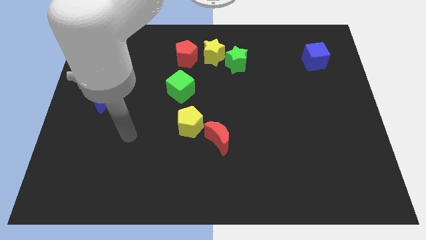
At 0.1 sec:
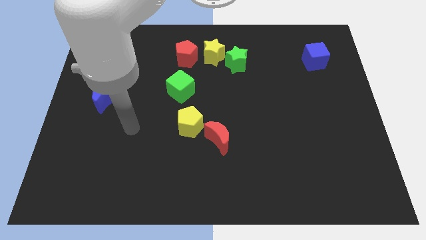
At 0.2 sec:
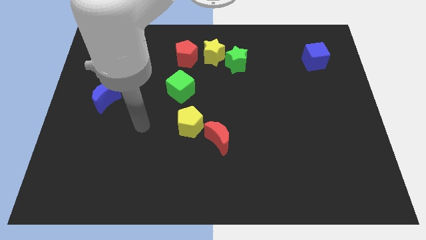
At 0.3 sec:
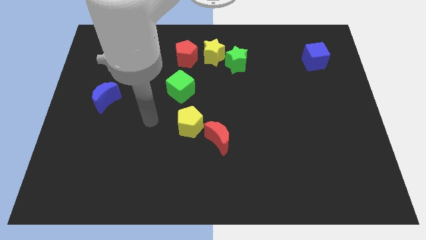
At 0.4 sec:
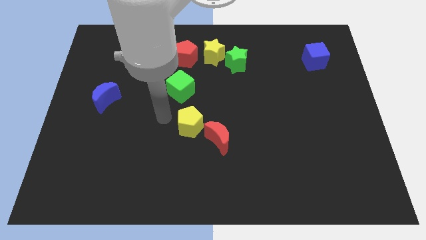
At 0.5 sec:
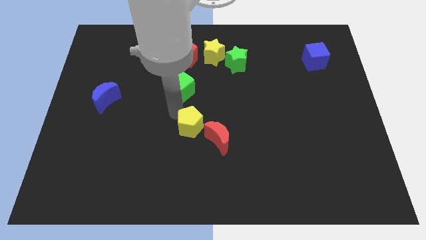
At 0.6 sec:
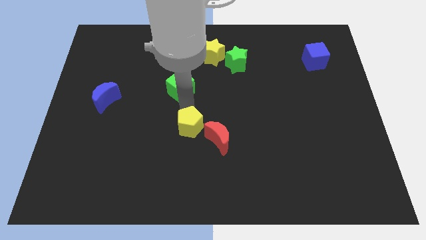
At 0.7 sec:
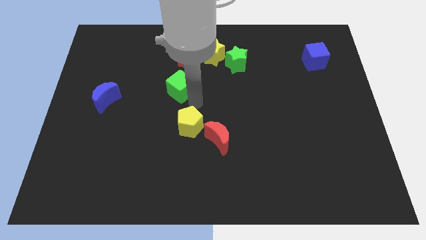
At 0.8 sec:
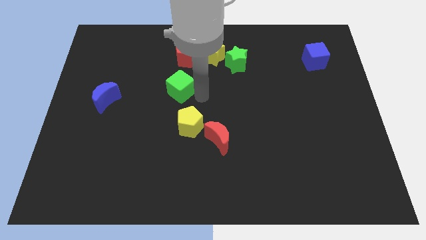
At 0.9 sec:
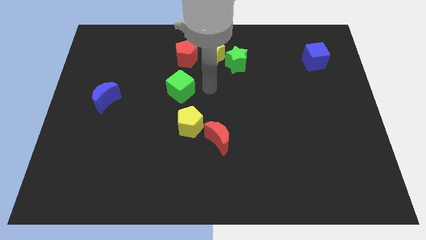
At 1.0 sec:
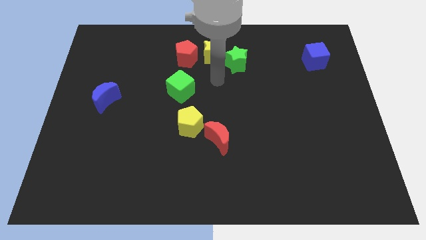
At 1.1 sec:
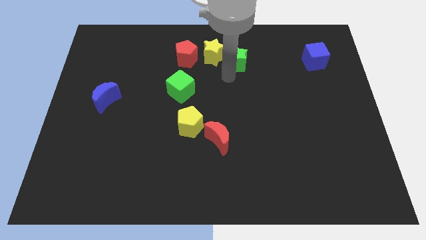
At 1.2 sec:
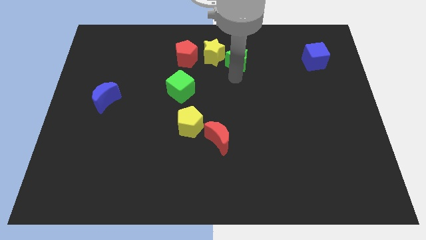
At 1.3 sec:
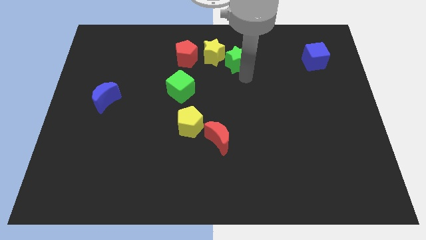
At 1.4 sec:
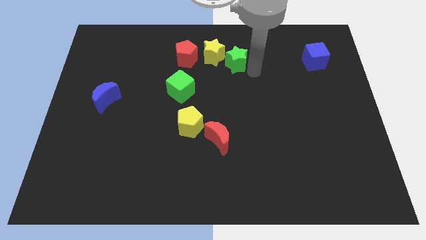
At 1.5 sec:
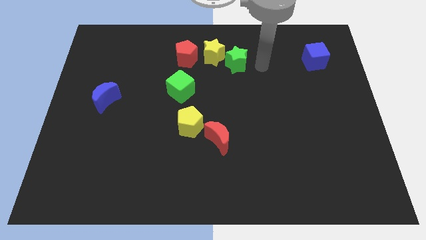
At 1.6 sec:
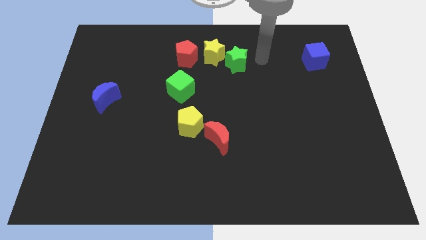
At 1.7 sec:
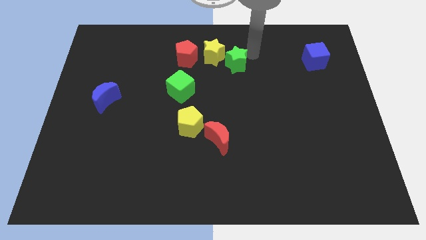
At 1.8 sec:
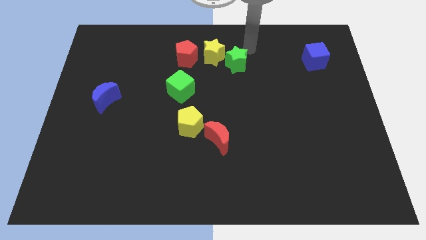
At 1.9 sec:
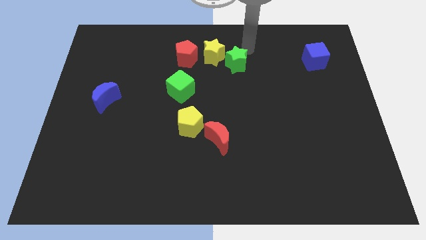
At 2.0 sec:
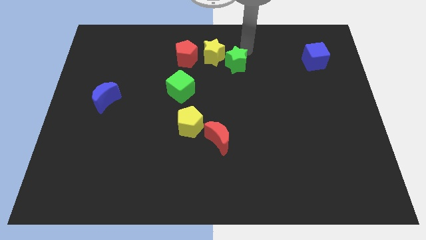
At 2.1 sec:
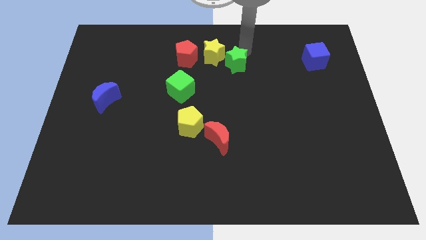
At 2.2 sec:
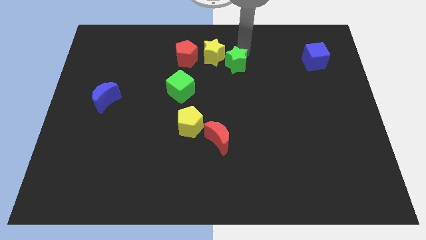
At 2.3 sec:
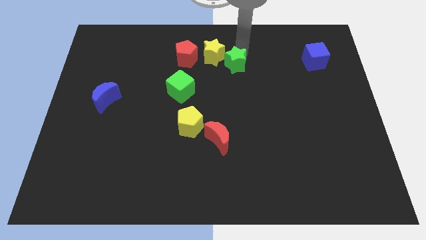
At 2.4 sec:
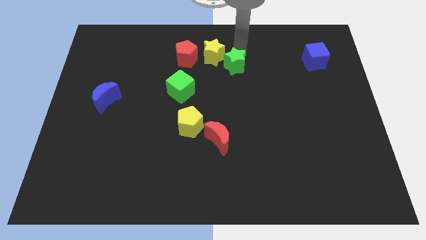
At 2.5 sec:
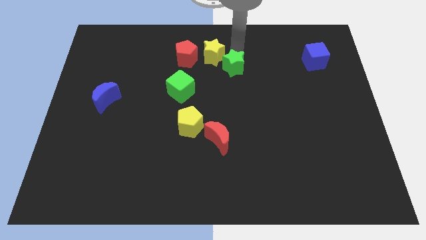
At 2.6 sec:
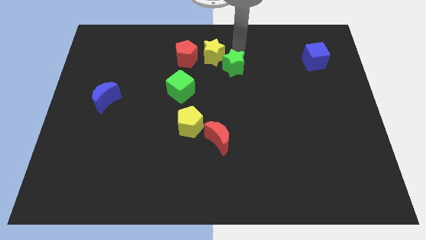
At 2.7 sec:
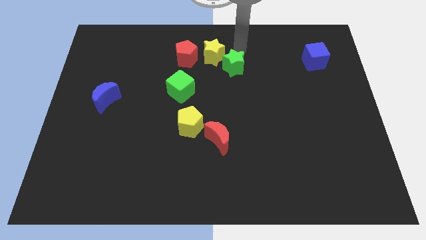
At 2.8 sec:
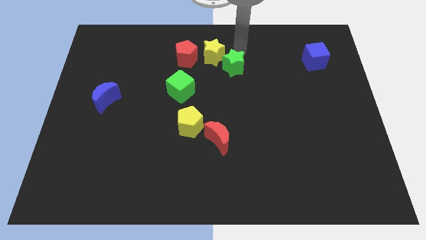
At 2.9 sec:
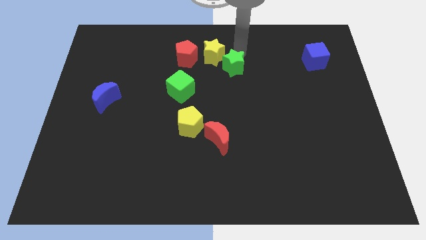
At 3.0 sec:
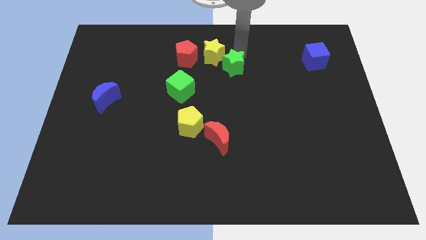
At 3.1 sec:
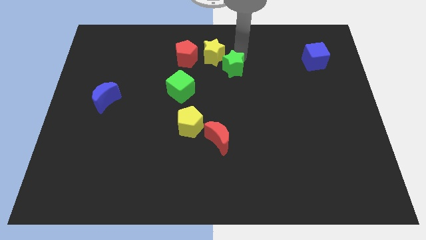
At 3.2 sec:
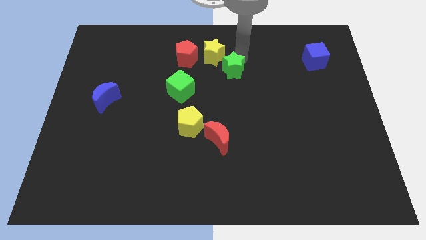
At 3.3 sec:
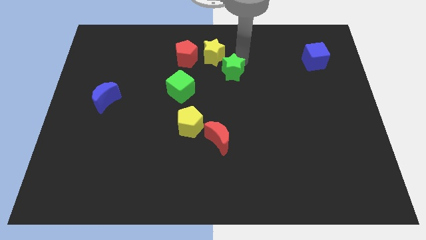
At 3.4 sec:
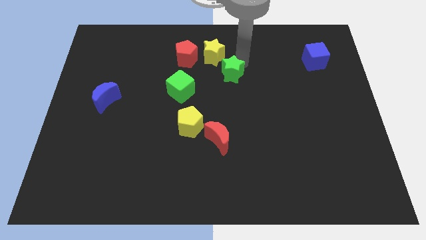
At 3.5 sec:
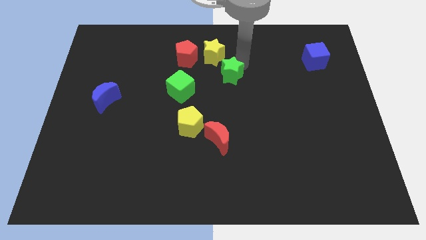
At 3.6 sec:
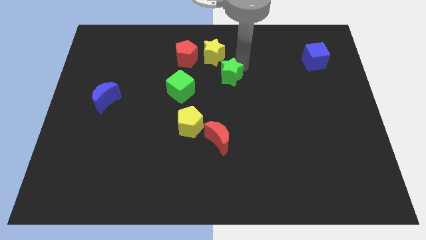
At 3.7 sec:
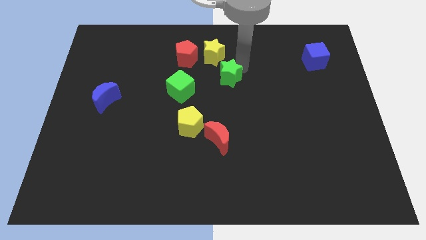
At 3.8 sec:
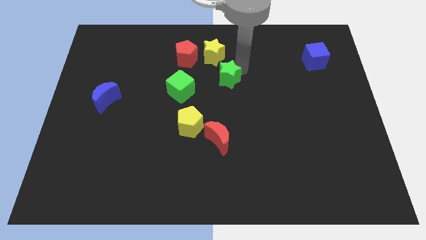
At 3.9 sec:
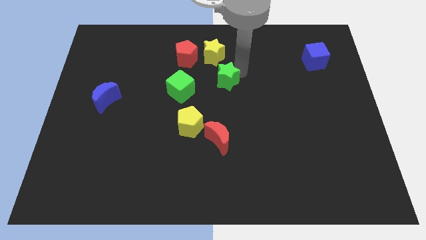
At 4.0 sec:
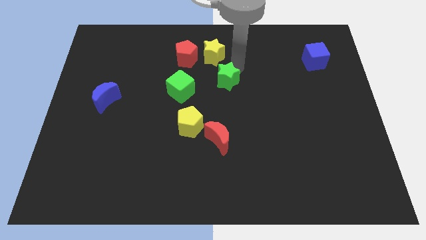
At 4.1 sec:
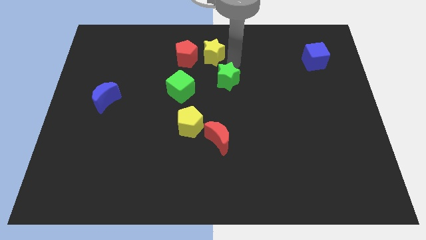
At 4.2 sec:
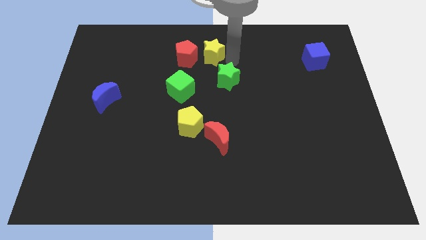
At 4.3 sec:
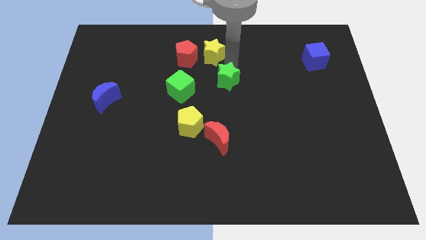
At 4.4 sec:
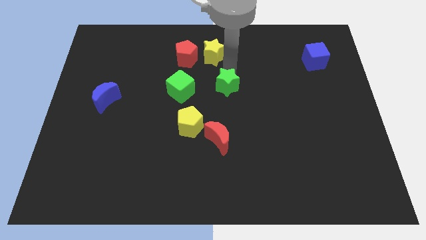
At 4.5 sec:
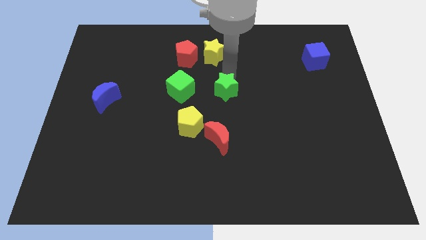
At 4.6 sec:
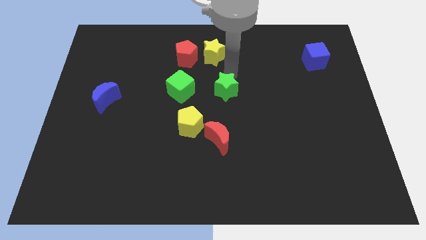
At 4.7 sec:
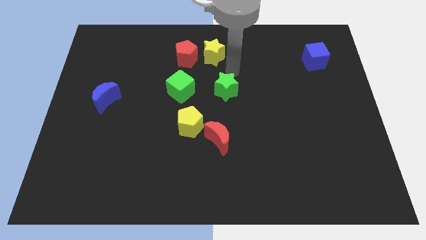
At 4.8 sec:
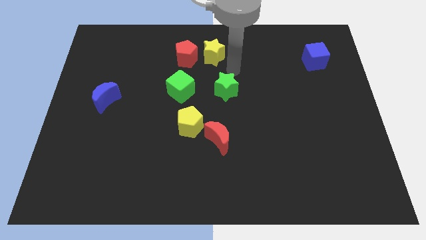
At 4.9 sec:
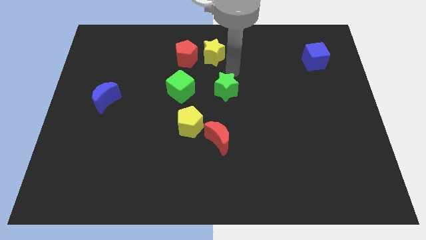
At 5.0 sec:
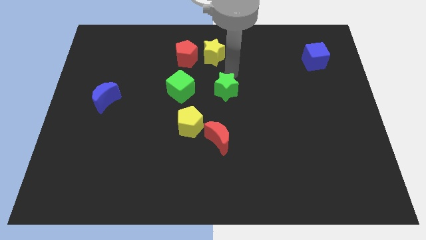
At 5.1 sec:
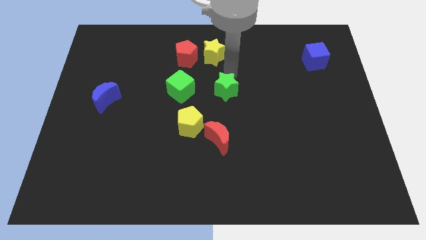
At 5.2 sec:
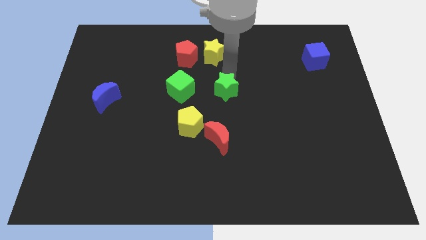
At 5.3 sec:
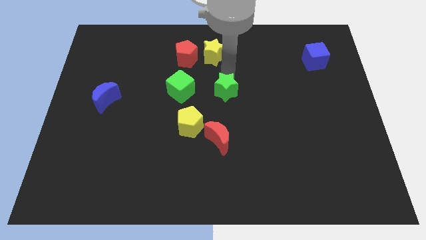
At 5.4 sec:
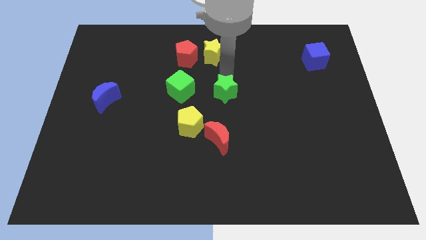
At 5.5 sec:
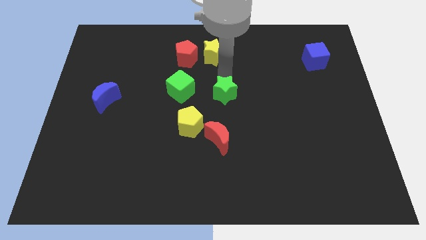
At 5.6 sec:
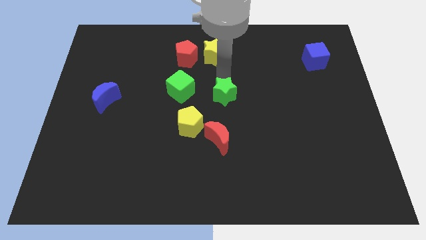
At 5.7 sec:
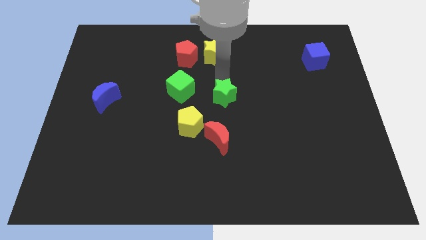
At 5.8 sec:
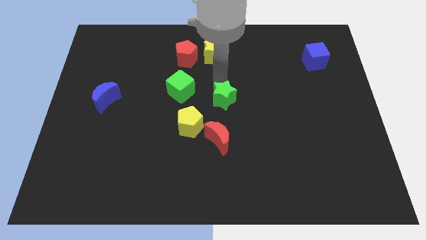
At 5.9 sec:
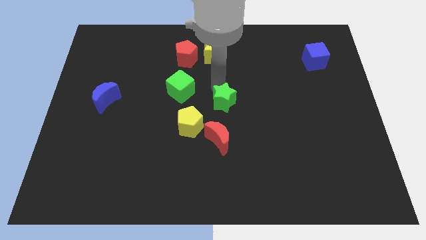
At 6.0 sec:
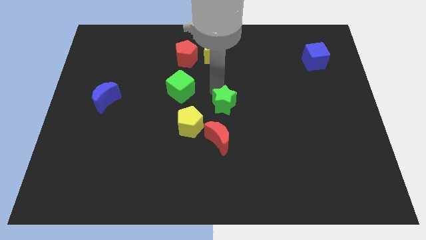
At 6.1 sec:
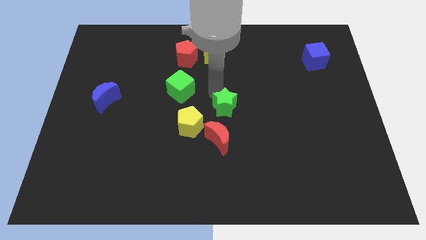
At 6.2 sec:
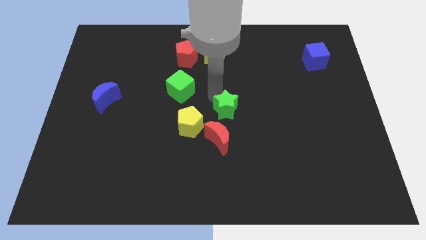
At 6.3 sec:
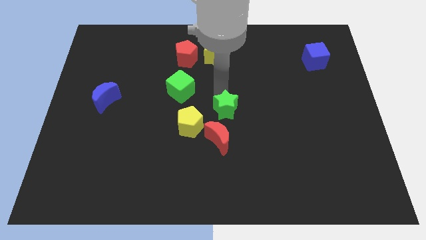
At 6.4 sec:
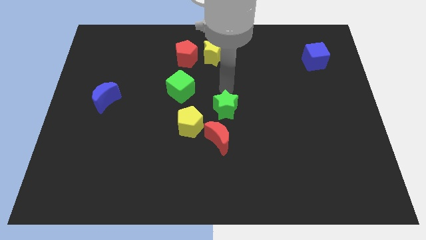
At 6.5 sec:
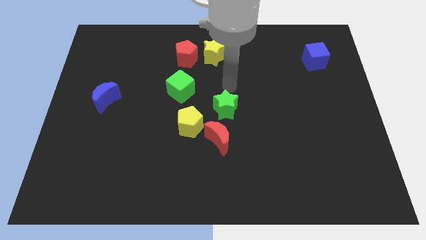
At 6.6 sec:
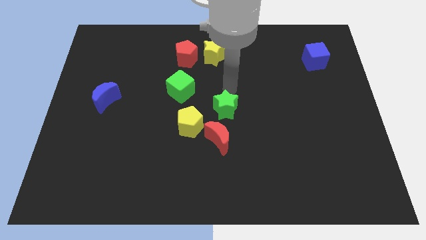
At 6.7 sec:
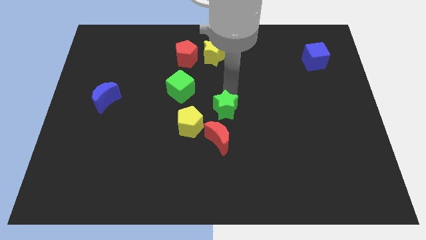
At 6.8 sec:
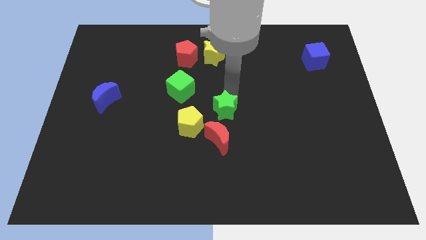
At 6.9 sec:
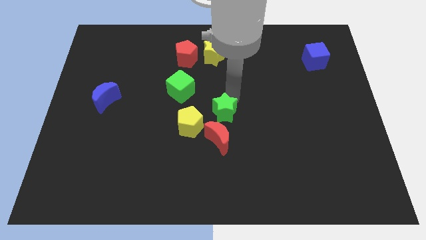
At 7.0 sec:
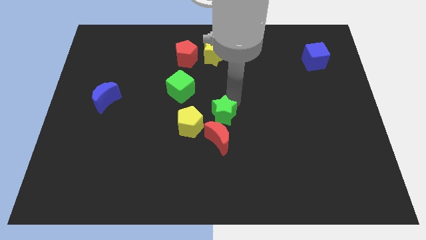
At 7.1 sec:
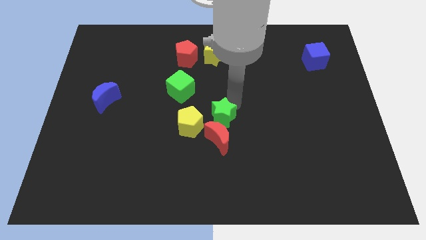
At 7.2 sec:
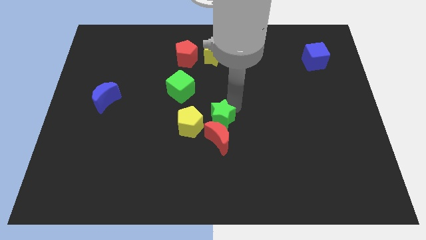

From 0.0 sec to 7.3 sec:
slide the green star close to the red moon
